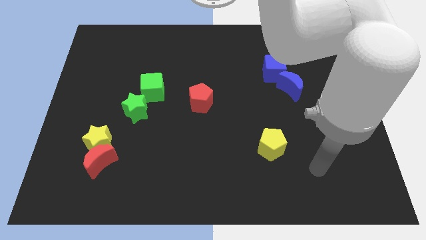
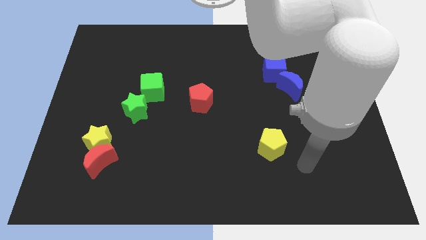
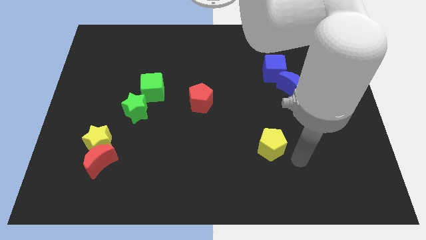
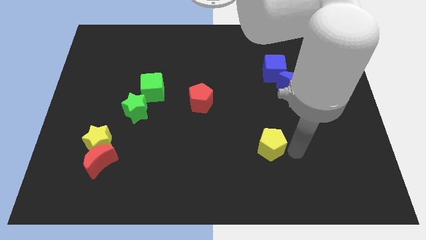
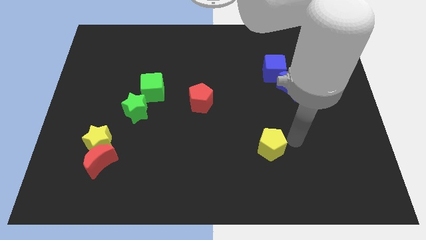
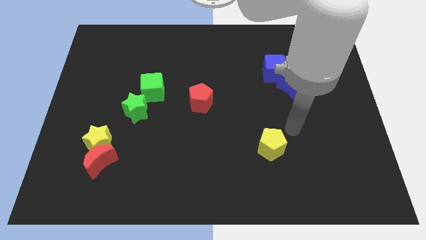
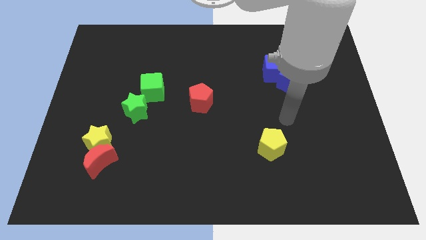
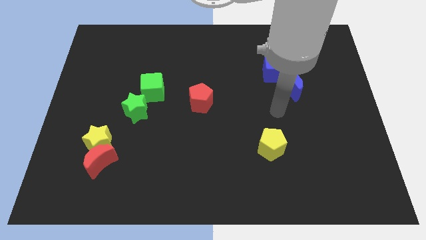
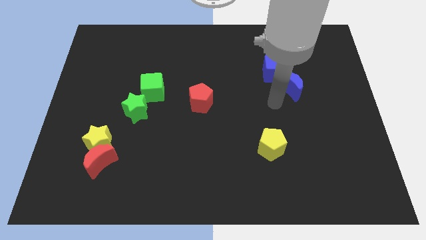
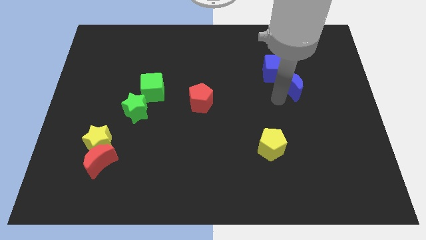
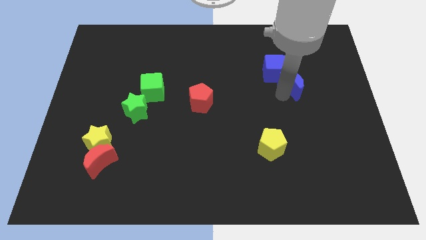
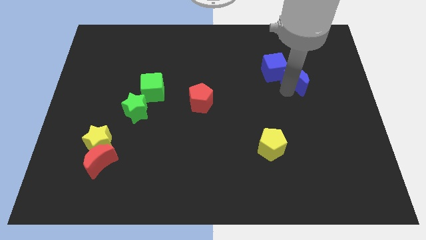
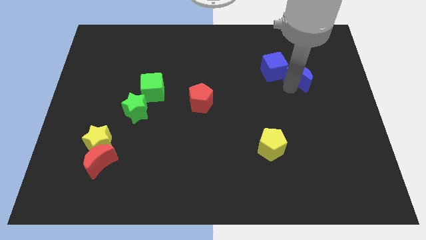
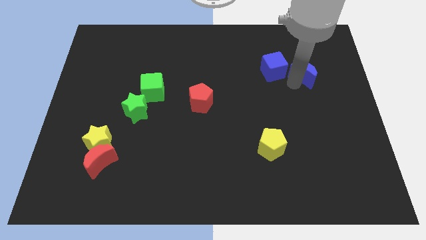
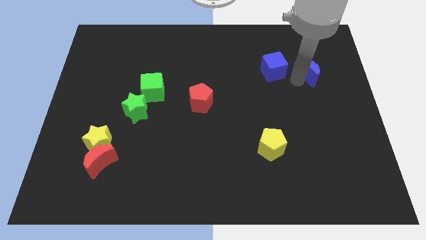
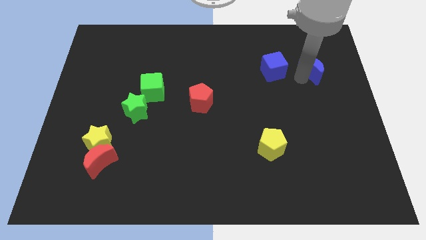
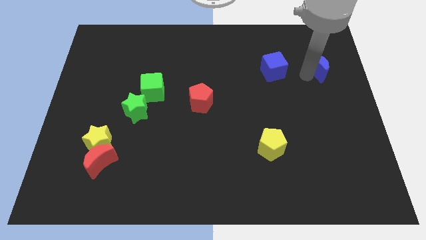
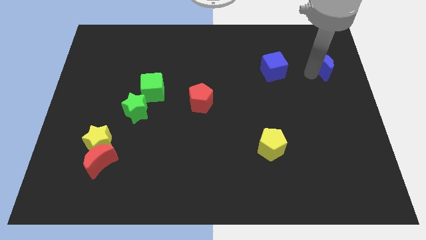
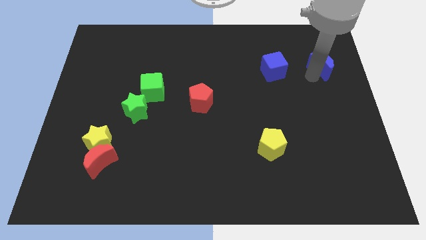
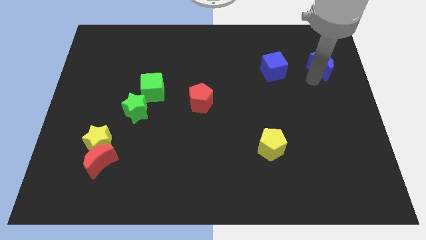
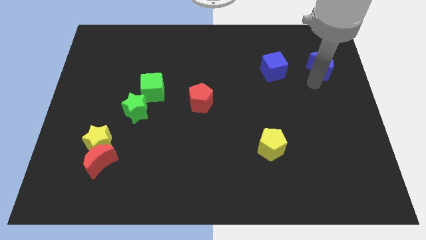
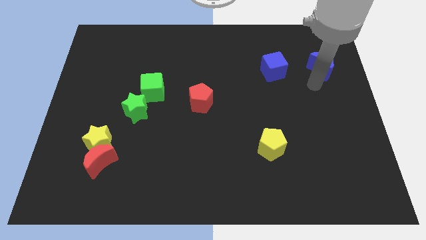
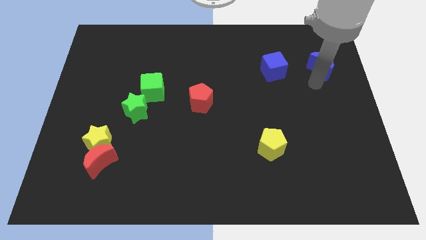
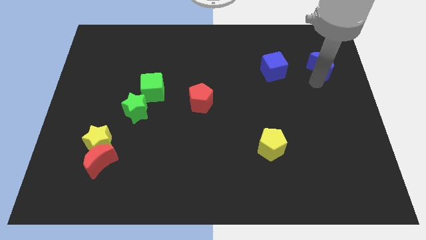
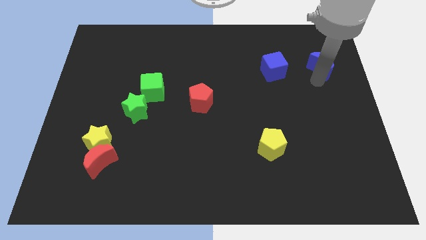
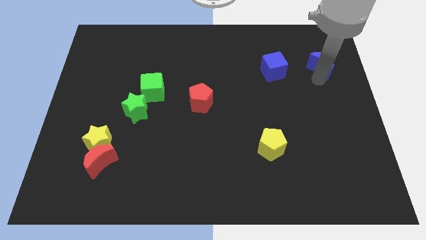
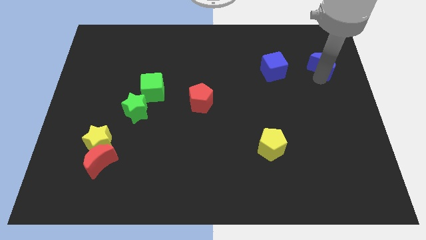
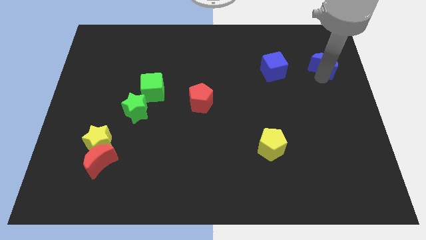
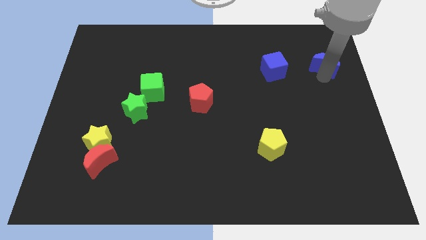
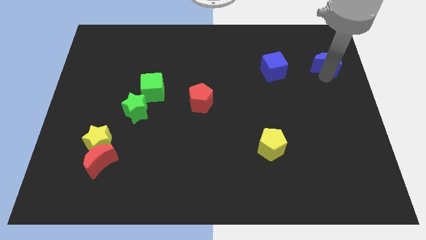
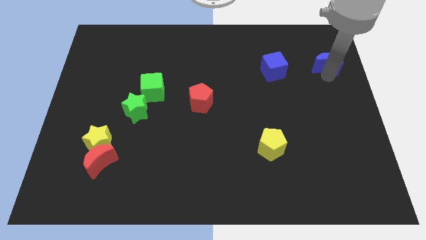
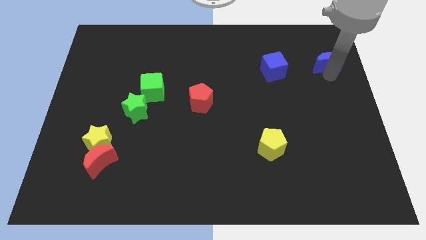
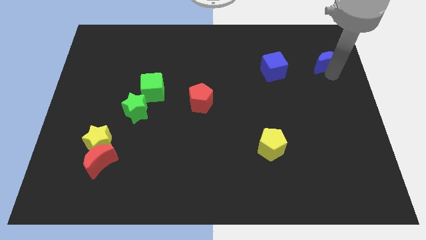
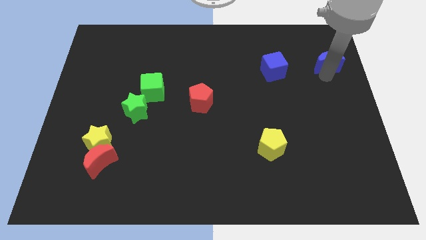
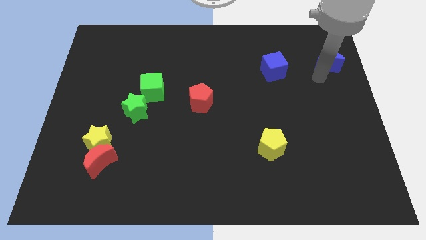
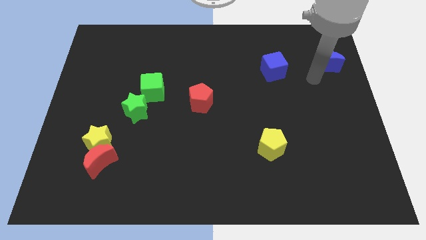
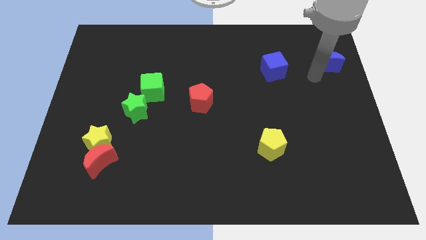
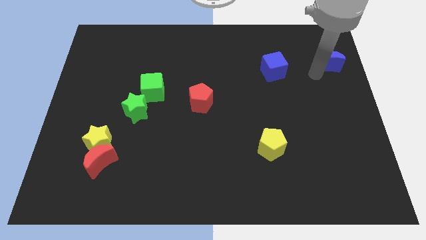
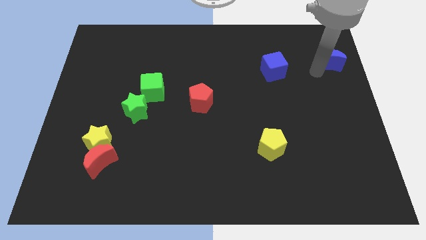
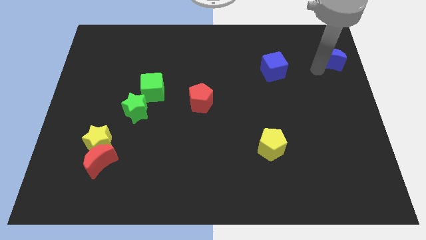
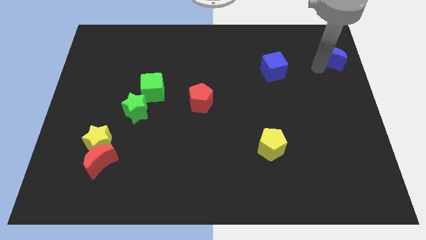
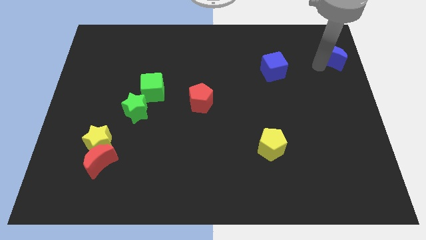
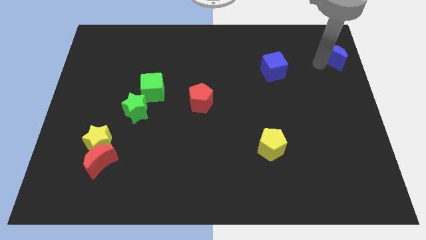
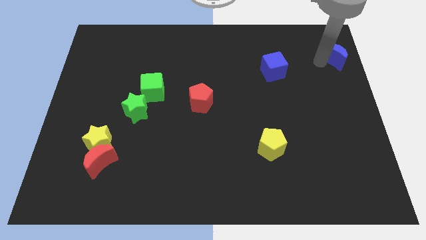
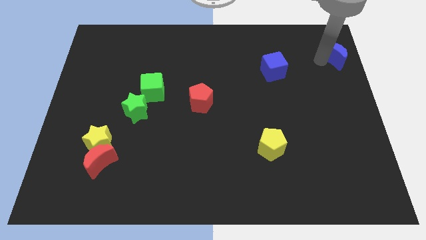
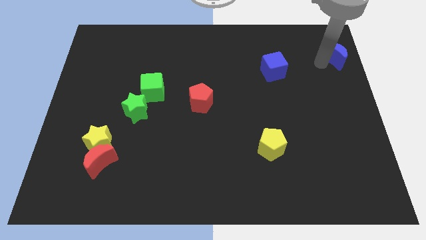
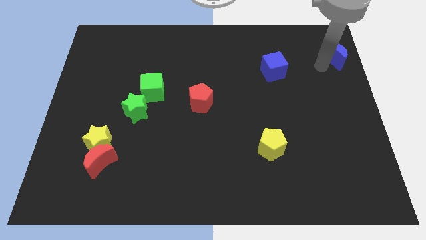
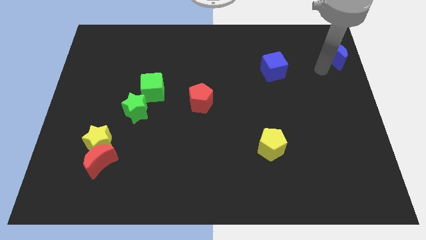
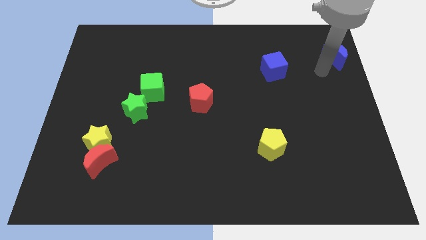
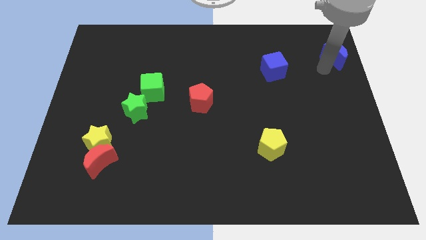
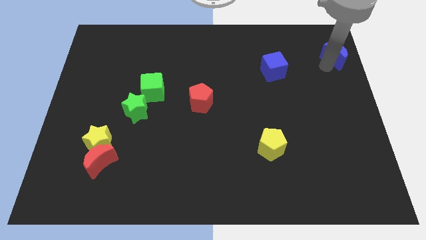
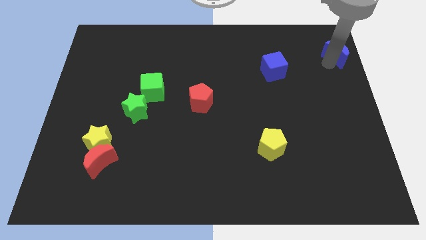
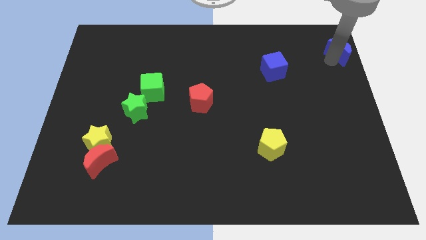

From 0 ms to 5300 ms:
push the blue moon to the top right corner

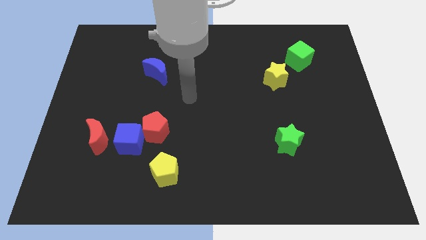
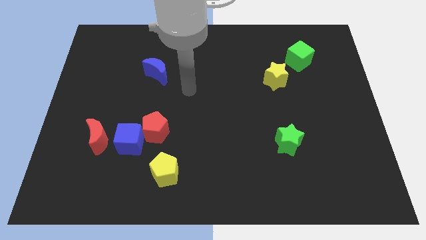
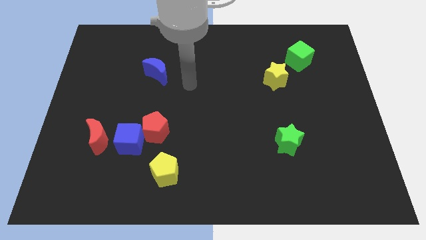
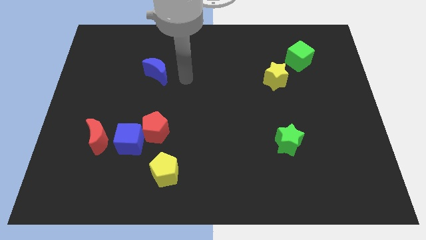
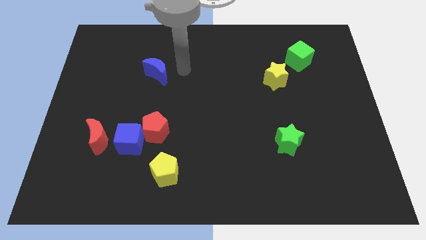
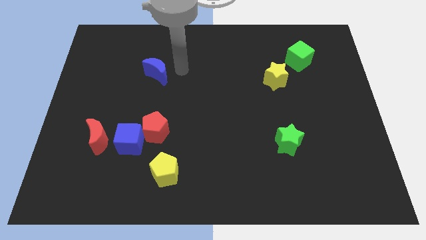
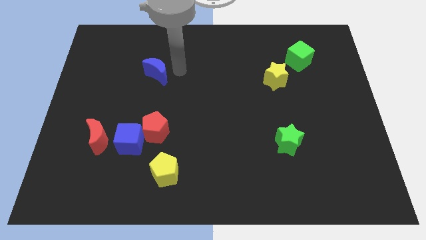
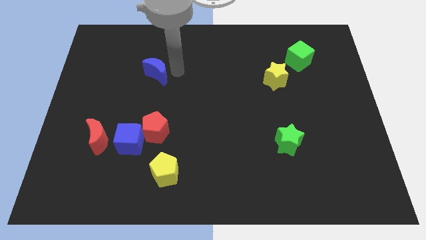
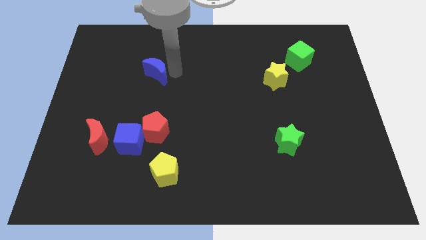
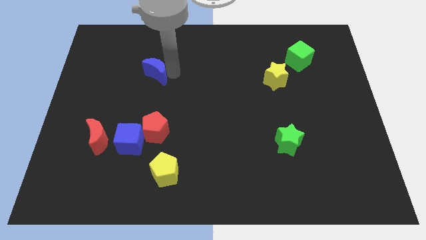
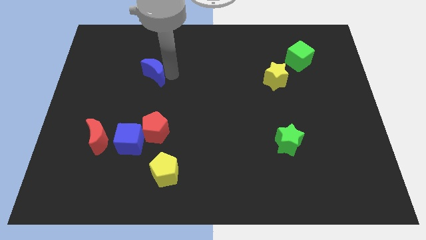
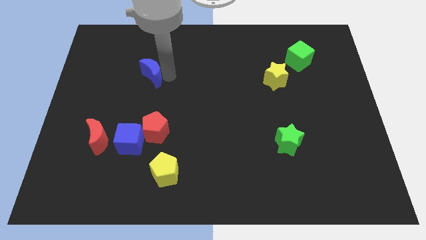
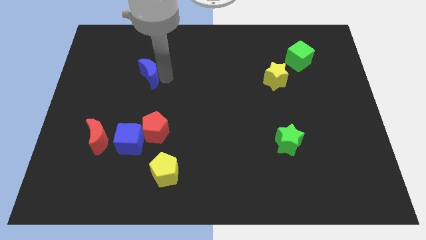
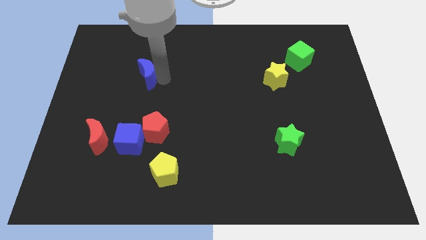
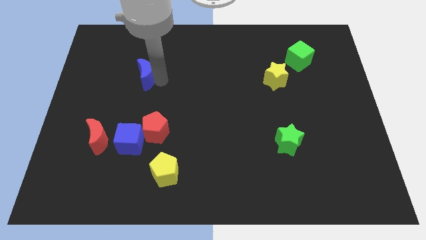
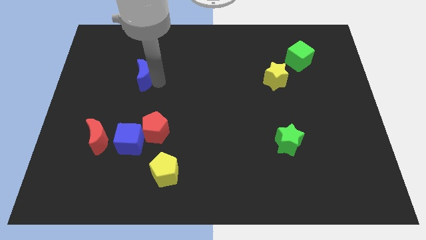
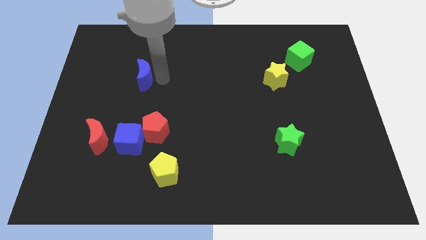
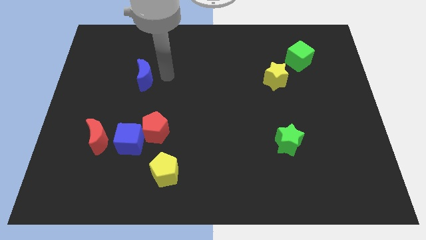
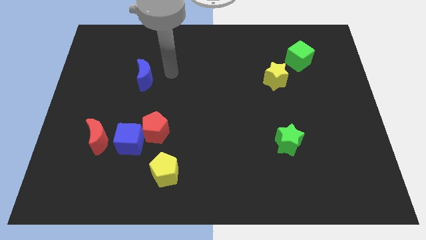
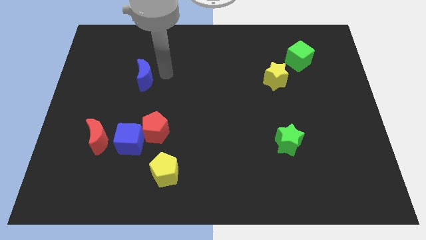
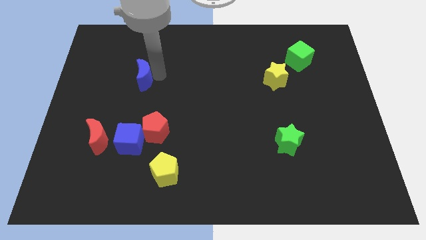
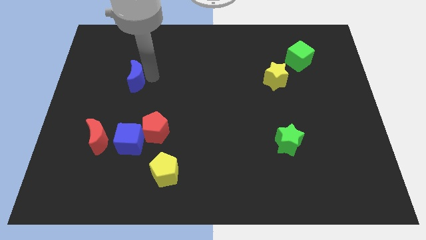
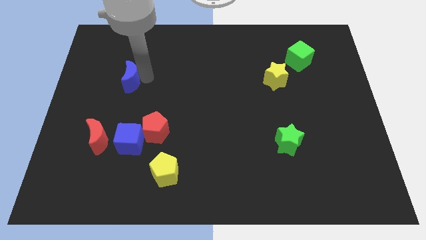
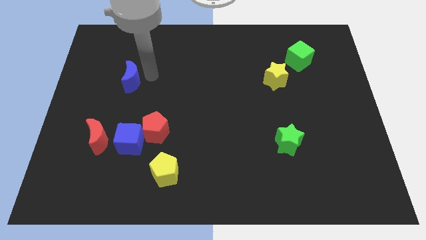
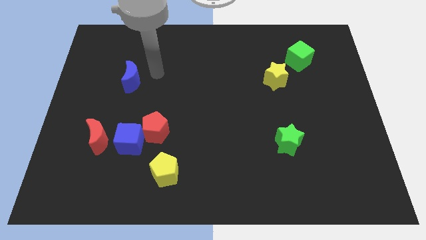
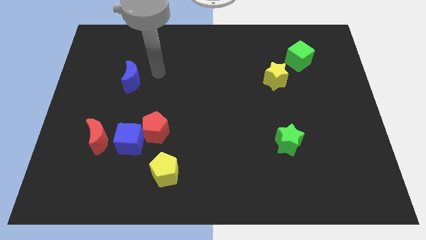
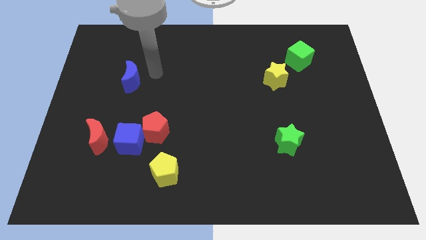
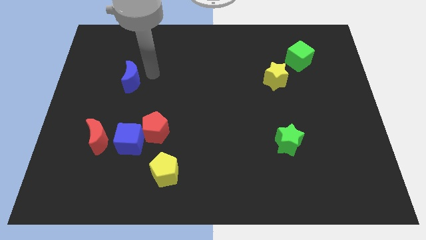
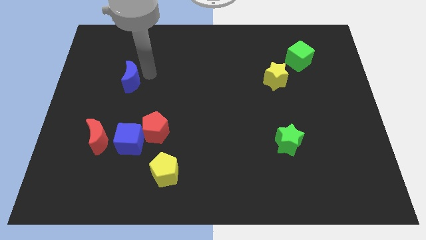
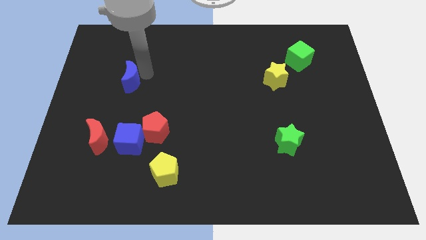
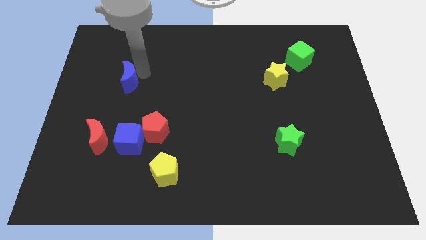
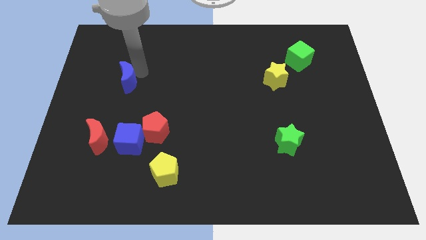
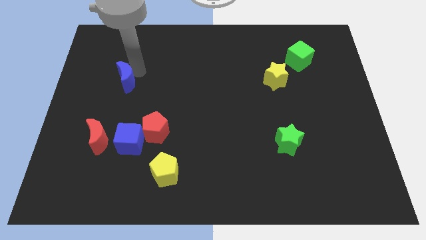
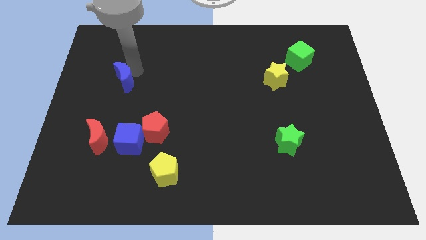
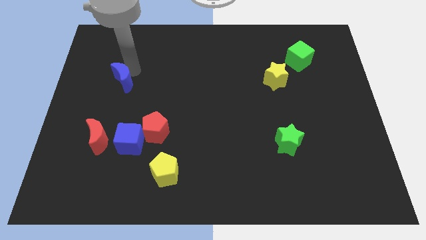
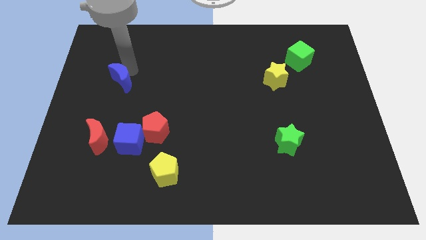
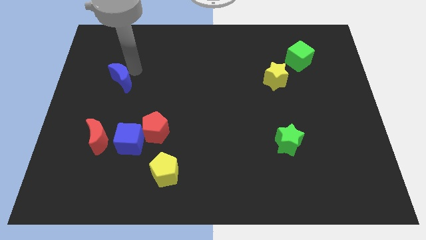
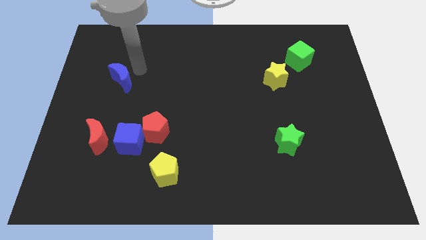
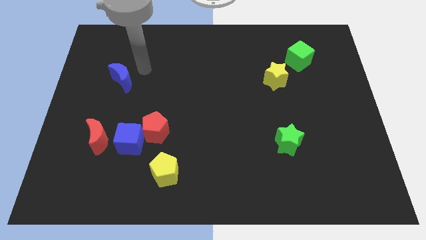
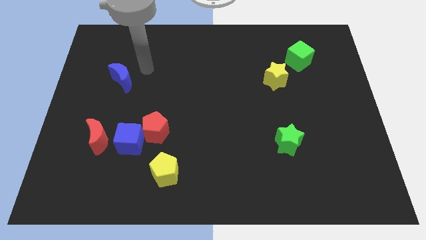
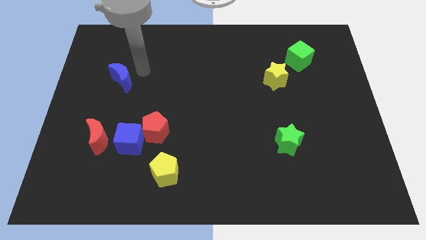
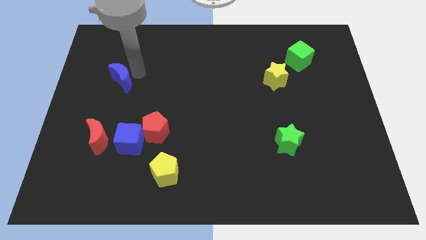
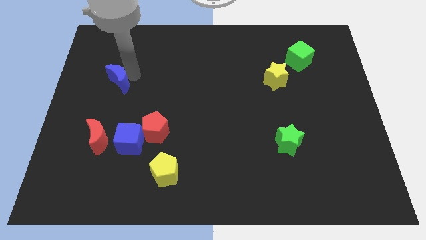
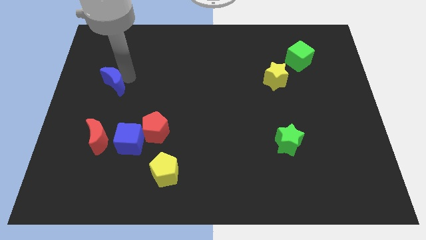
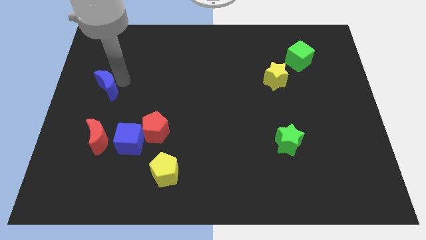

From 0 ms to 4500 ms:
move the blue moon to the center left
